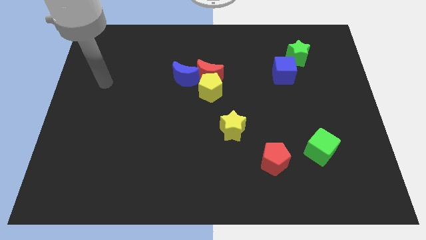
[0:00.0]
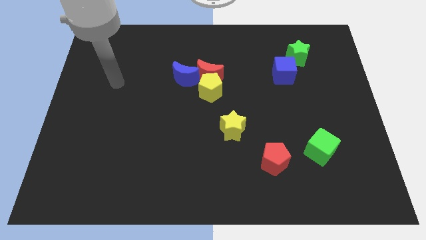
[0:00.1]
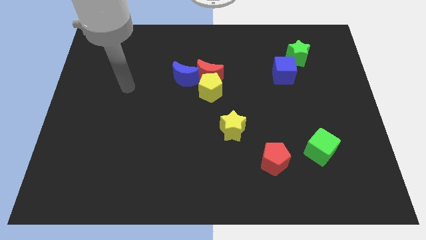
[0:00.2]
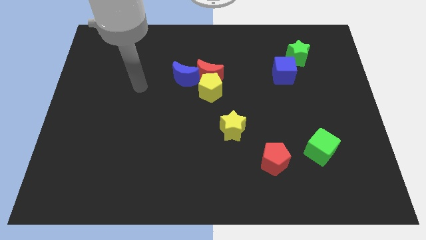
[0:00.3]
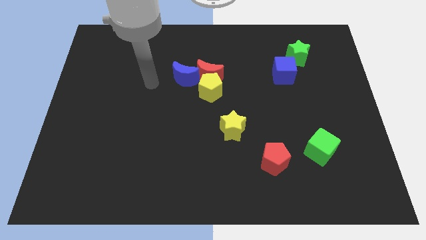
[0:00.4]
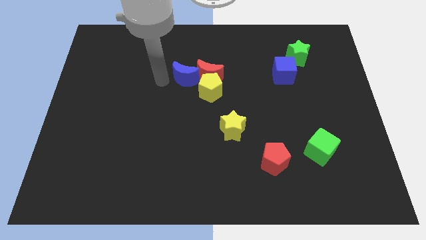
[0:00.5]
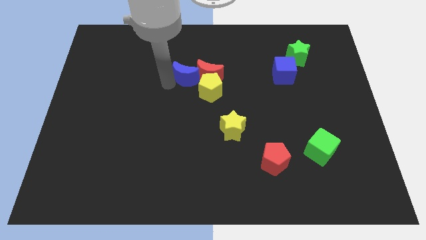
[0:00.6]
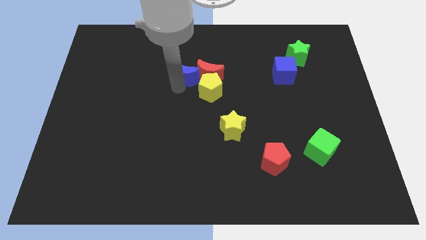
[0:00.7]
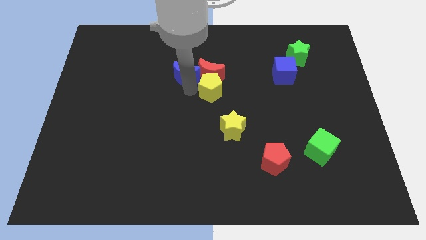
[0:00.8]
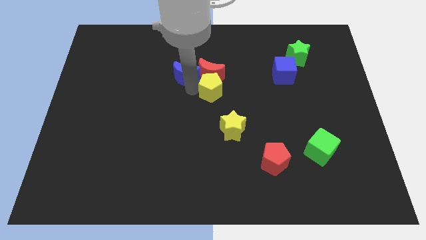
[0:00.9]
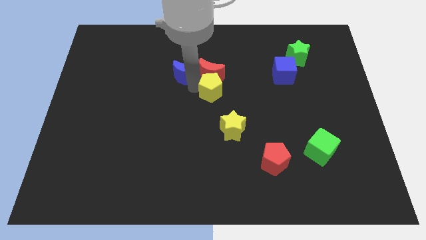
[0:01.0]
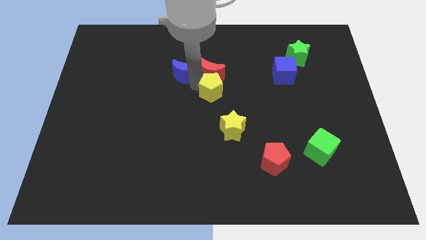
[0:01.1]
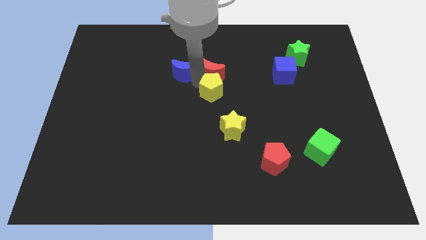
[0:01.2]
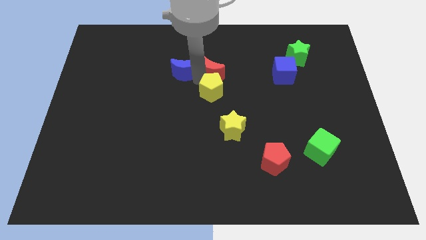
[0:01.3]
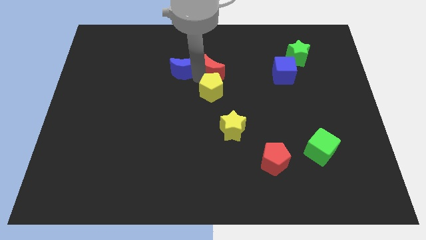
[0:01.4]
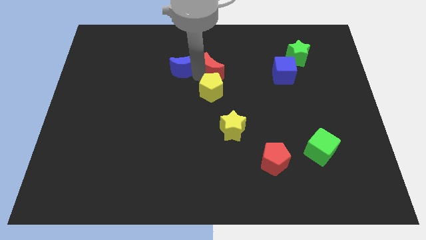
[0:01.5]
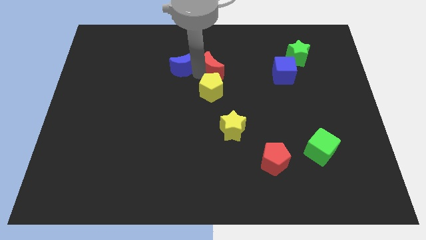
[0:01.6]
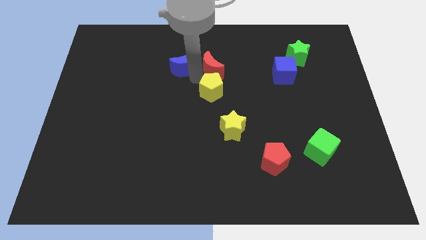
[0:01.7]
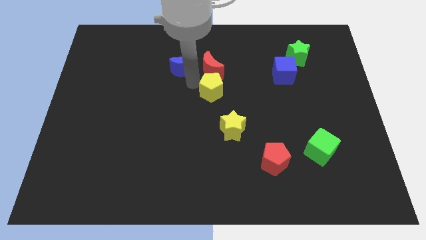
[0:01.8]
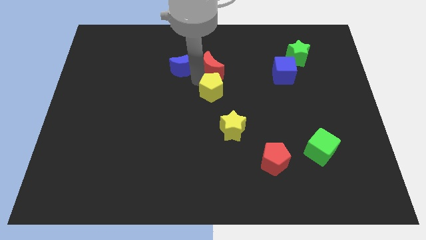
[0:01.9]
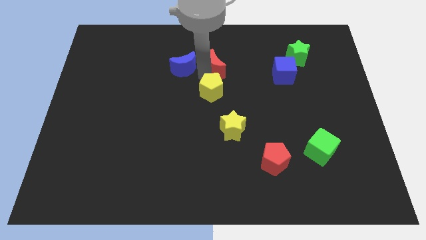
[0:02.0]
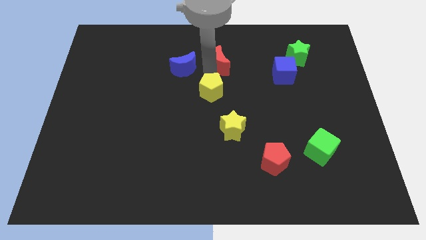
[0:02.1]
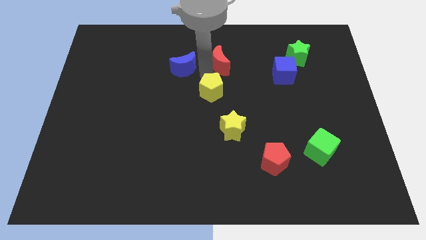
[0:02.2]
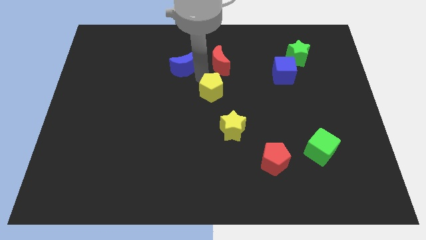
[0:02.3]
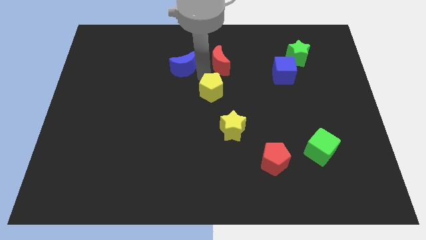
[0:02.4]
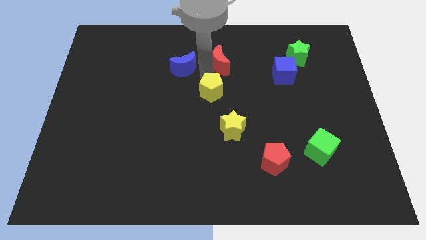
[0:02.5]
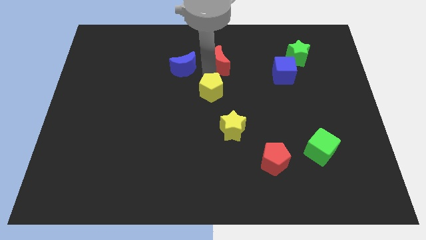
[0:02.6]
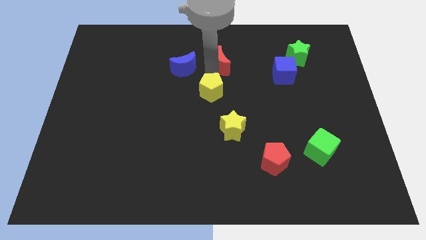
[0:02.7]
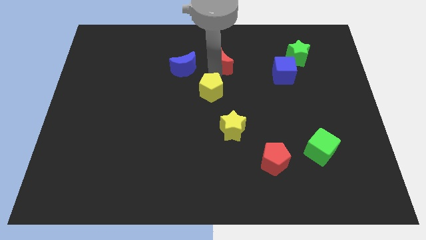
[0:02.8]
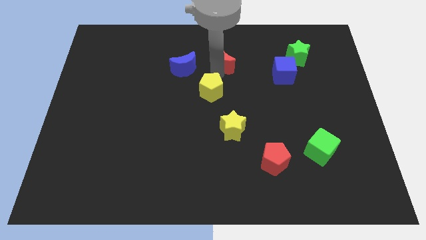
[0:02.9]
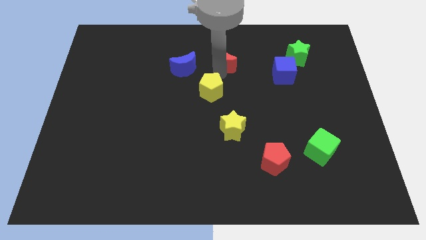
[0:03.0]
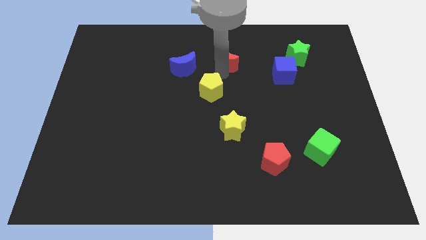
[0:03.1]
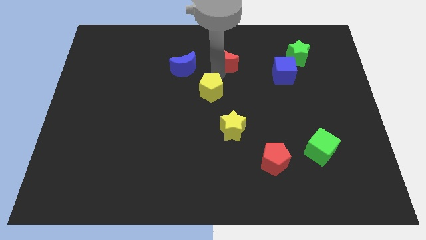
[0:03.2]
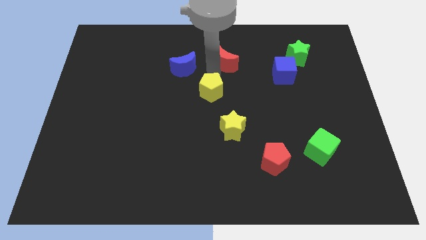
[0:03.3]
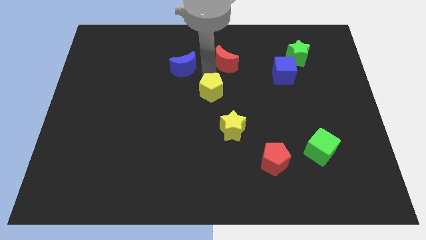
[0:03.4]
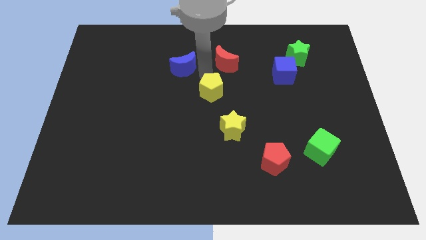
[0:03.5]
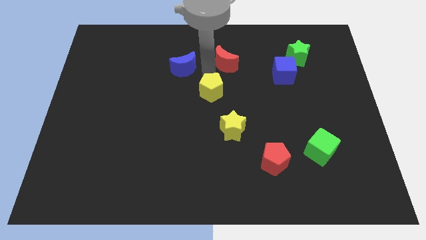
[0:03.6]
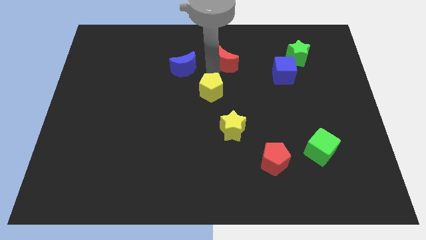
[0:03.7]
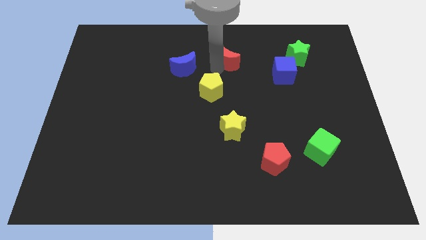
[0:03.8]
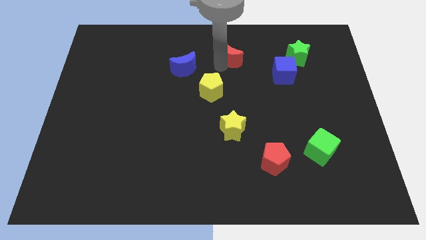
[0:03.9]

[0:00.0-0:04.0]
separate the red moon from the yellow pentagon and blue moon

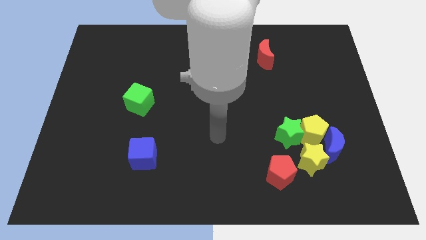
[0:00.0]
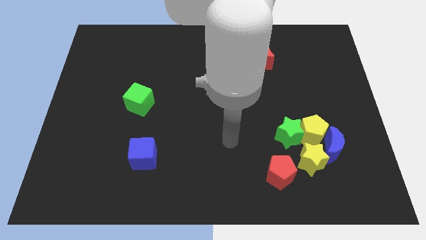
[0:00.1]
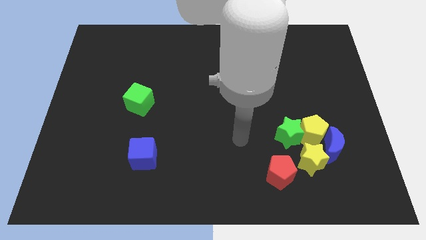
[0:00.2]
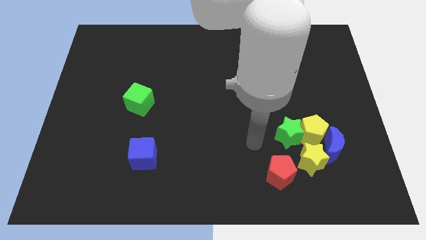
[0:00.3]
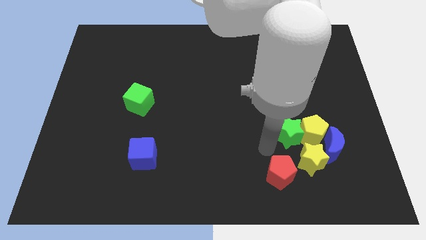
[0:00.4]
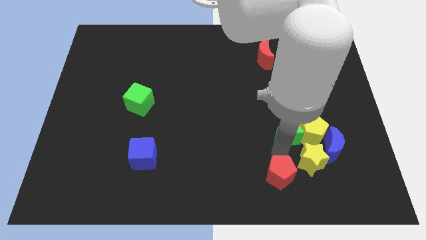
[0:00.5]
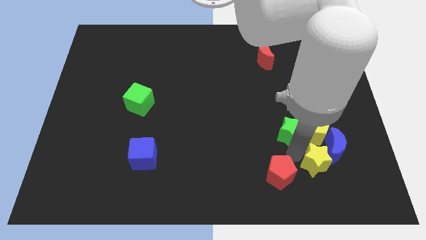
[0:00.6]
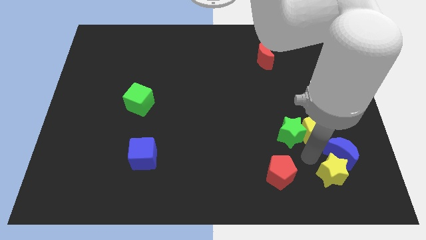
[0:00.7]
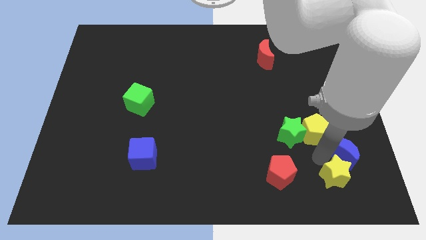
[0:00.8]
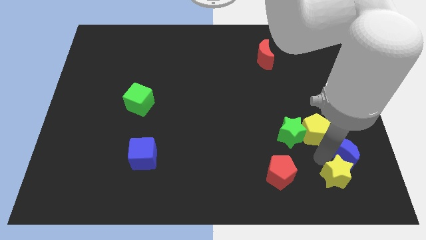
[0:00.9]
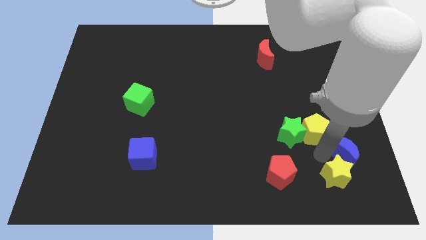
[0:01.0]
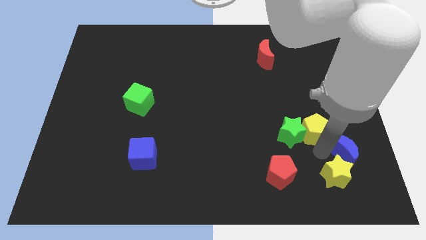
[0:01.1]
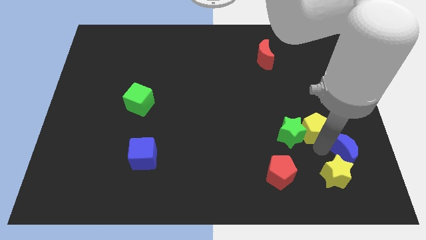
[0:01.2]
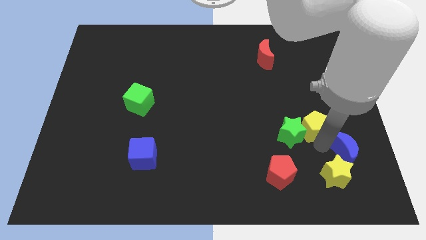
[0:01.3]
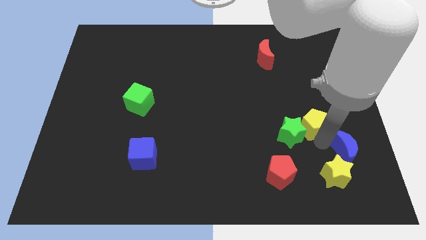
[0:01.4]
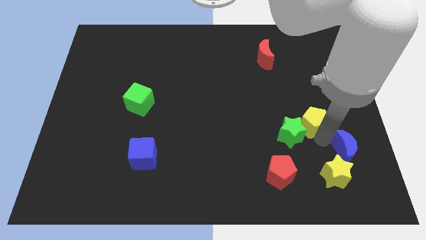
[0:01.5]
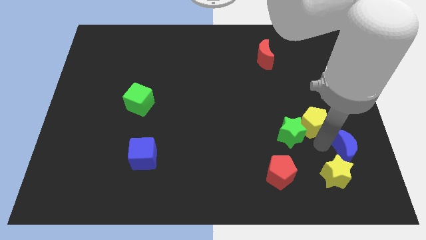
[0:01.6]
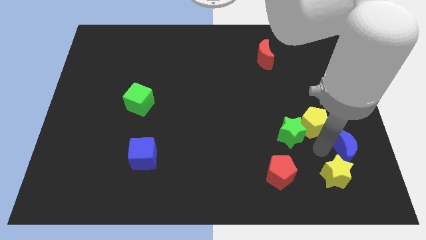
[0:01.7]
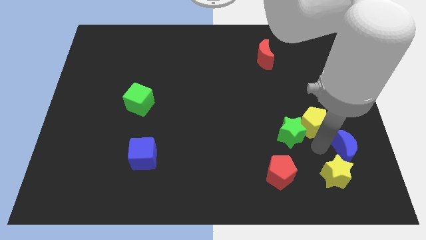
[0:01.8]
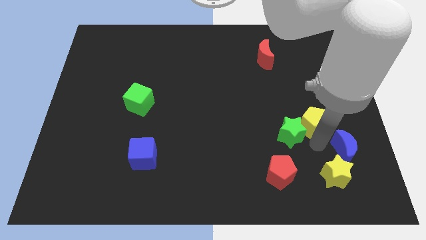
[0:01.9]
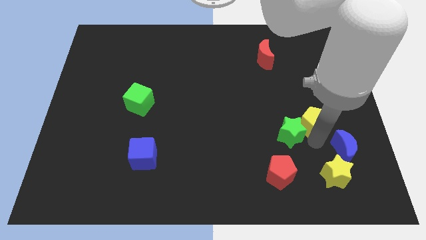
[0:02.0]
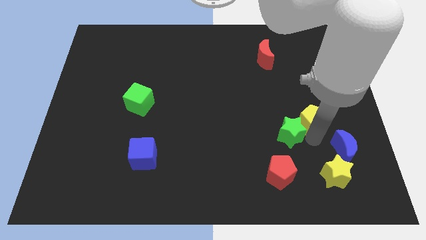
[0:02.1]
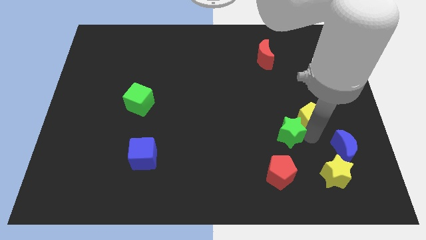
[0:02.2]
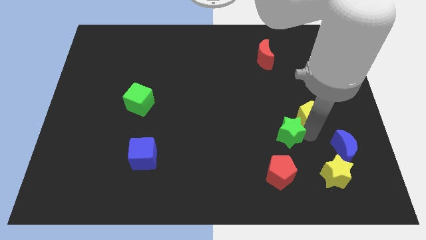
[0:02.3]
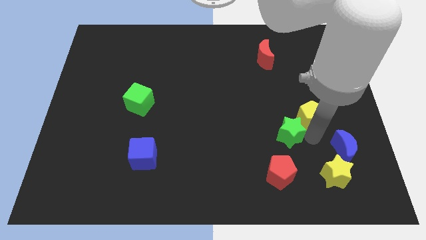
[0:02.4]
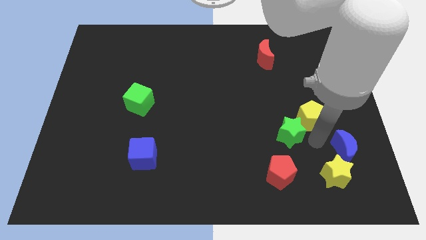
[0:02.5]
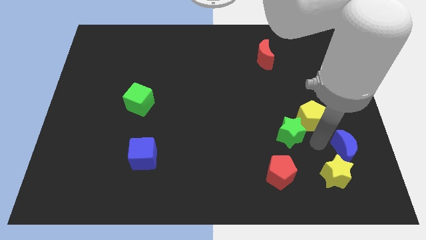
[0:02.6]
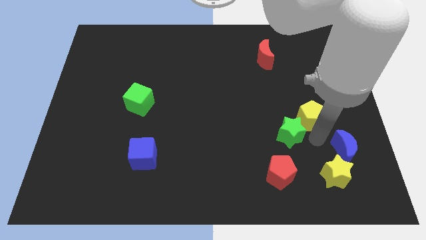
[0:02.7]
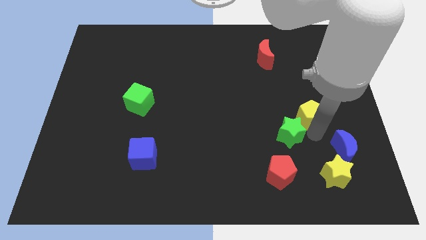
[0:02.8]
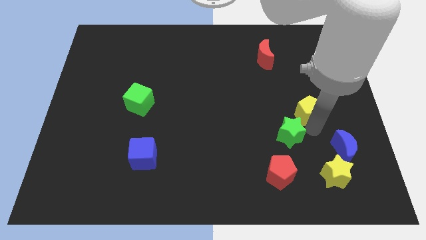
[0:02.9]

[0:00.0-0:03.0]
pull the yellow pentagon apart from the green star, blue moon, and yellow star

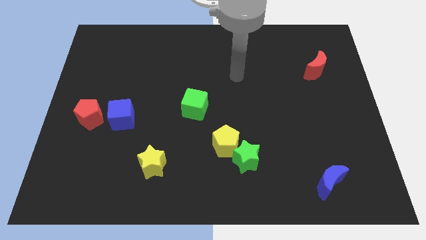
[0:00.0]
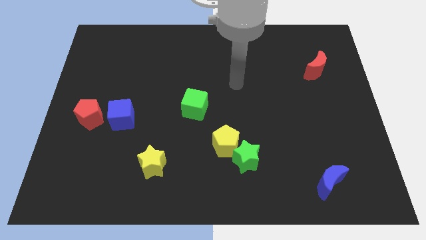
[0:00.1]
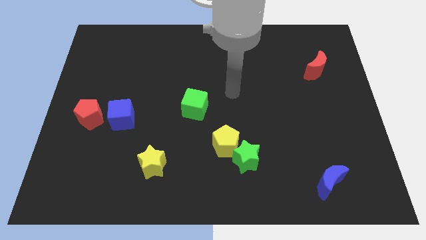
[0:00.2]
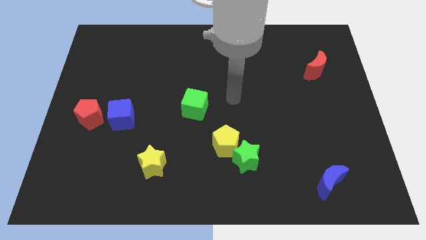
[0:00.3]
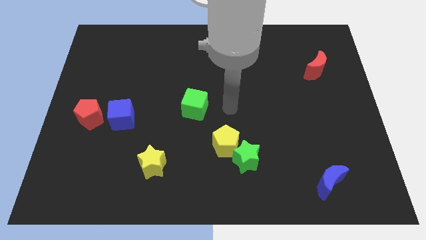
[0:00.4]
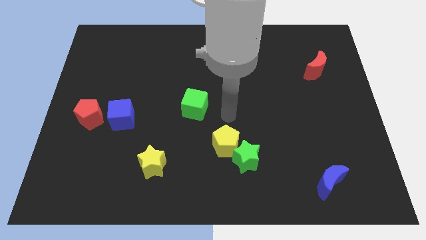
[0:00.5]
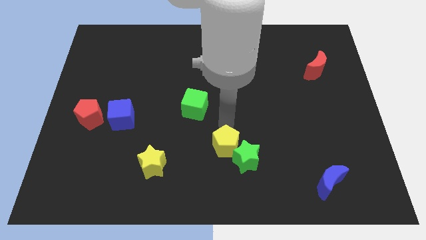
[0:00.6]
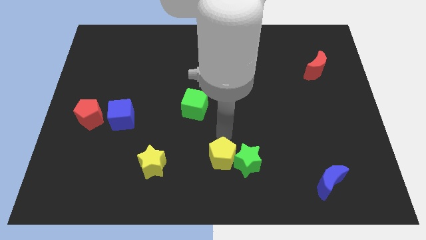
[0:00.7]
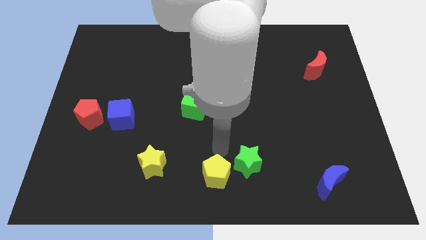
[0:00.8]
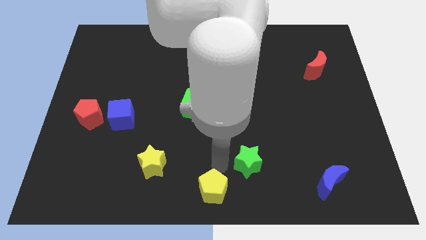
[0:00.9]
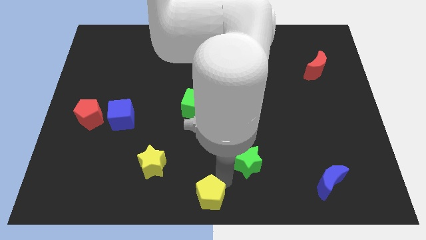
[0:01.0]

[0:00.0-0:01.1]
pull the green star apart from the yellow pentagon

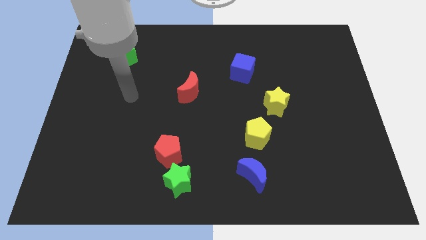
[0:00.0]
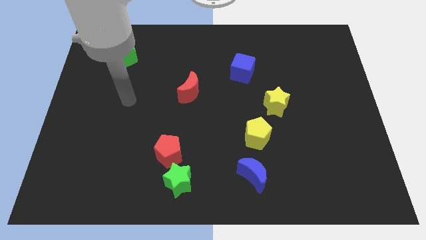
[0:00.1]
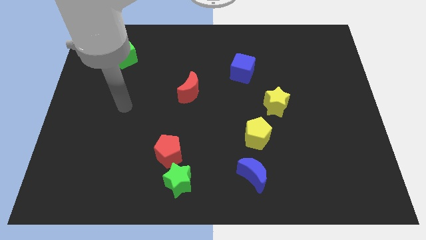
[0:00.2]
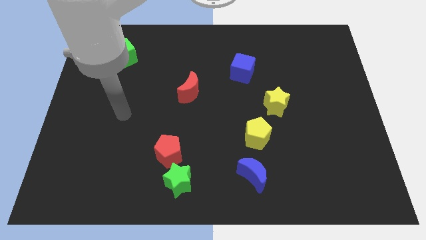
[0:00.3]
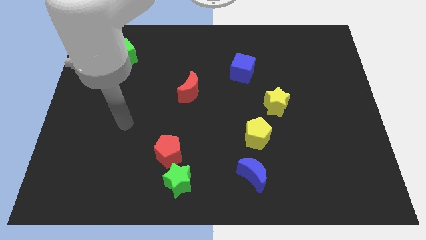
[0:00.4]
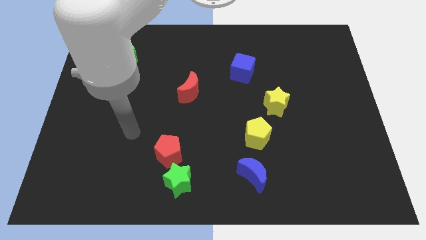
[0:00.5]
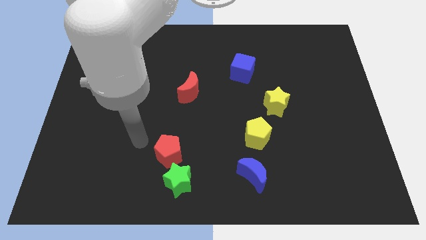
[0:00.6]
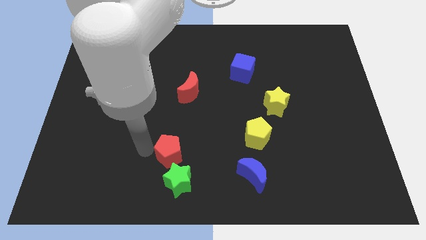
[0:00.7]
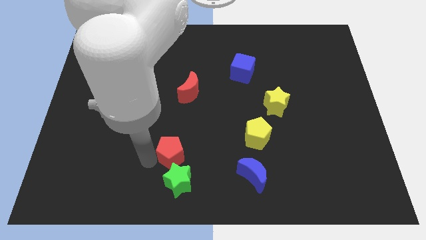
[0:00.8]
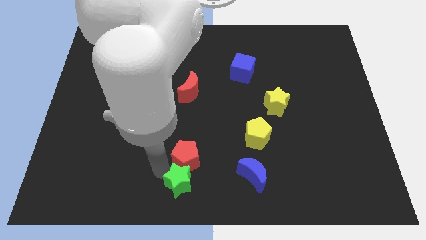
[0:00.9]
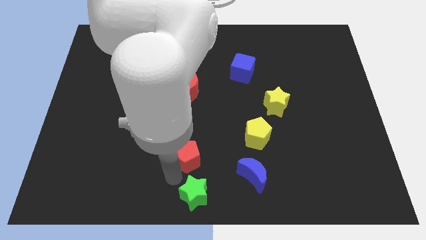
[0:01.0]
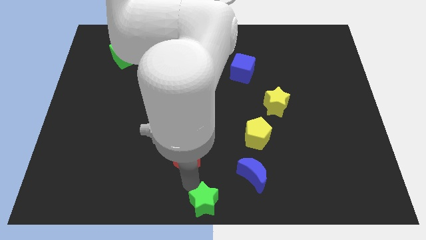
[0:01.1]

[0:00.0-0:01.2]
pull the red pentagon apart from the green star

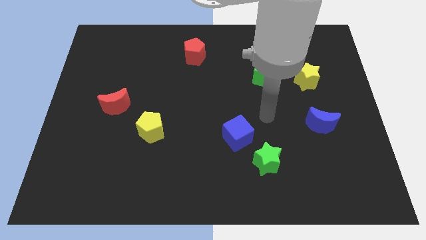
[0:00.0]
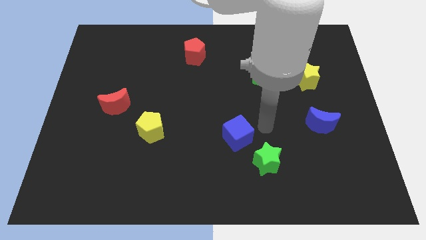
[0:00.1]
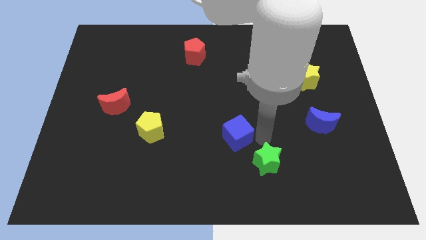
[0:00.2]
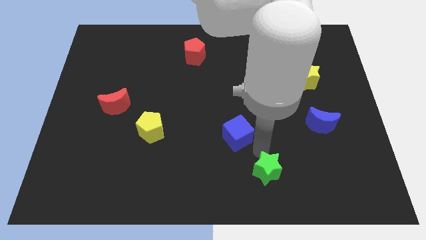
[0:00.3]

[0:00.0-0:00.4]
pull the blue cube apart from the green star
